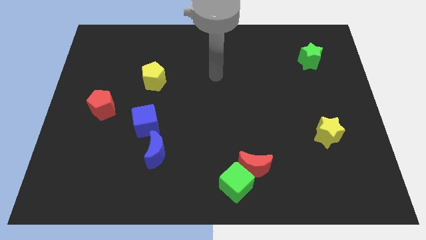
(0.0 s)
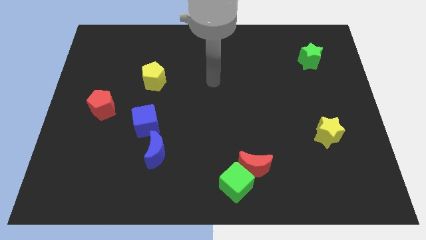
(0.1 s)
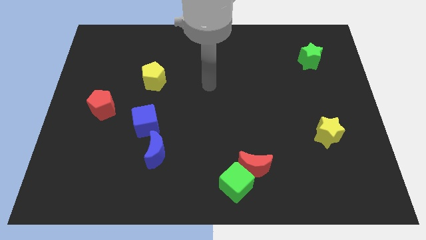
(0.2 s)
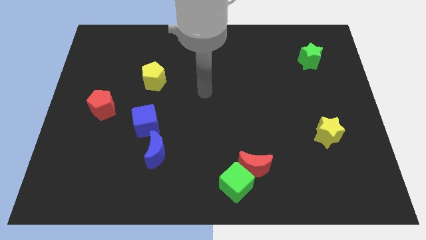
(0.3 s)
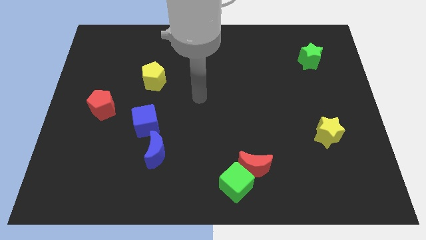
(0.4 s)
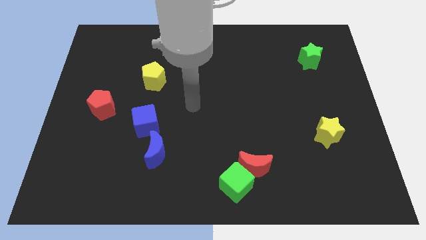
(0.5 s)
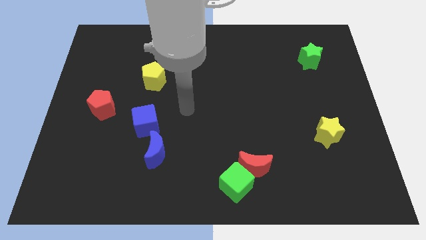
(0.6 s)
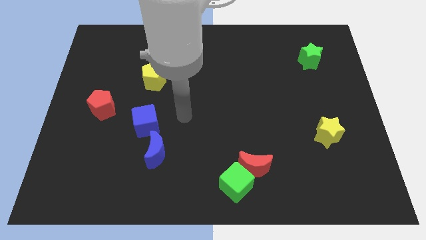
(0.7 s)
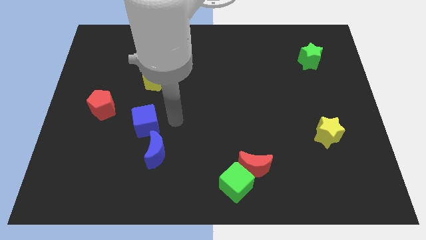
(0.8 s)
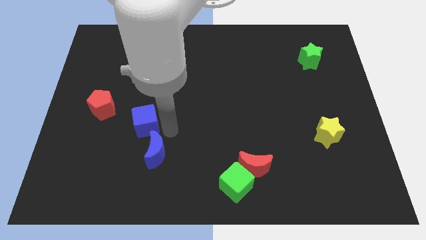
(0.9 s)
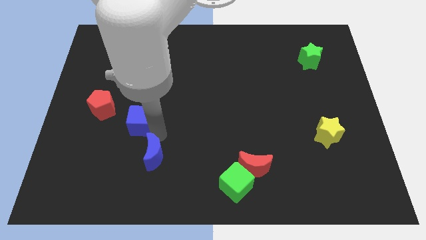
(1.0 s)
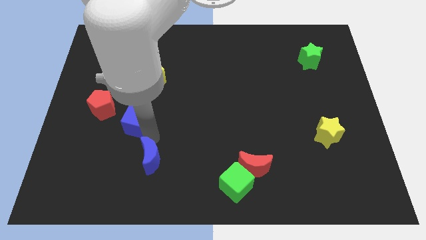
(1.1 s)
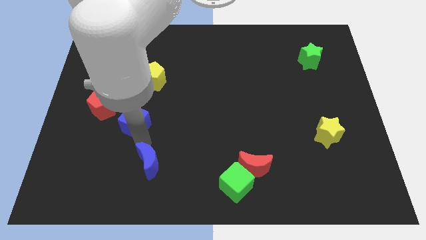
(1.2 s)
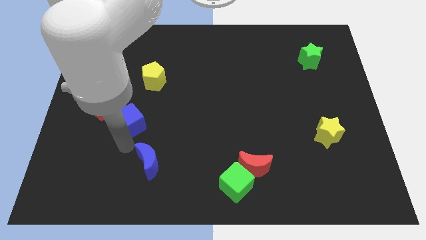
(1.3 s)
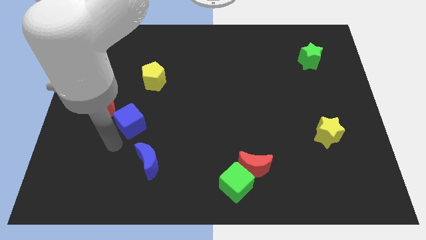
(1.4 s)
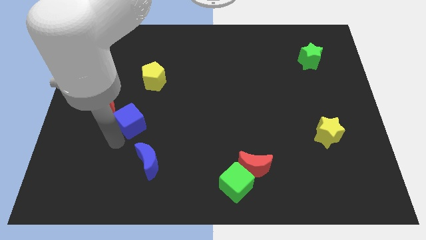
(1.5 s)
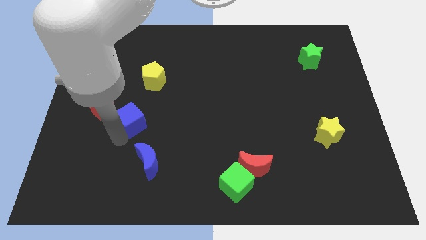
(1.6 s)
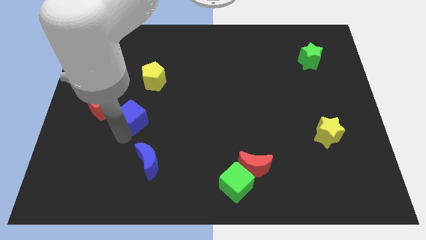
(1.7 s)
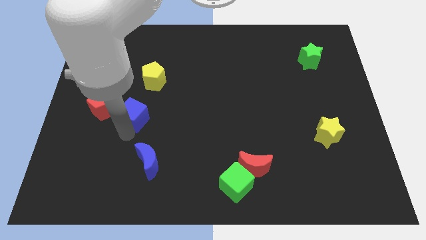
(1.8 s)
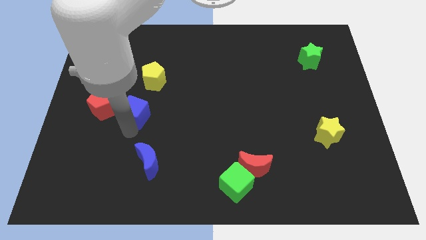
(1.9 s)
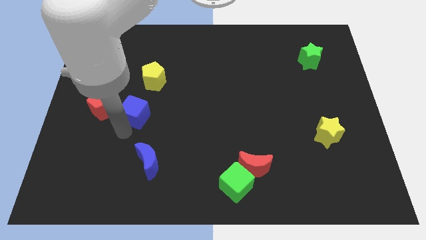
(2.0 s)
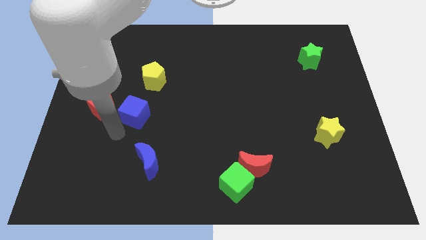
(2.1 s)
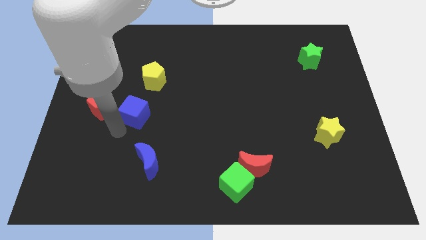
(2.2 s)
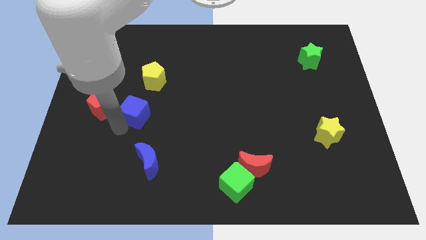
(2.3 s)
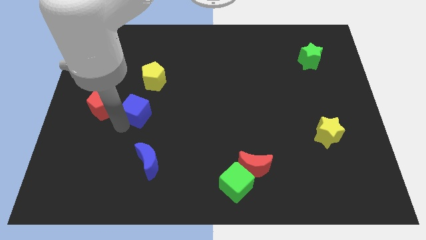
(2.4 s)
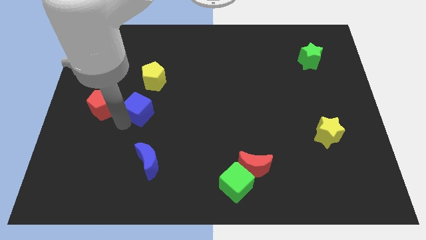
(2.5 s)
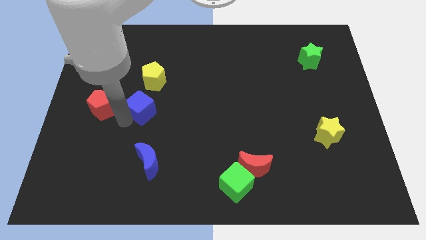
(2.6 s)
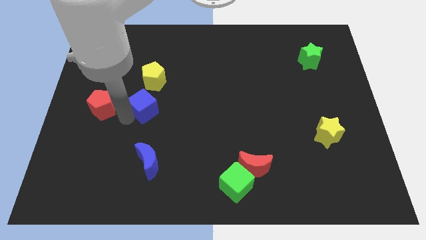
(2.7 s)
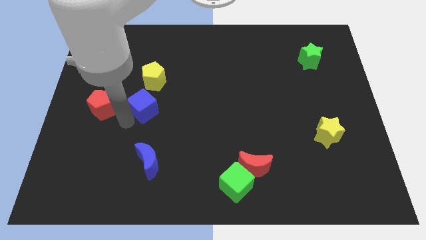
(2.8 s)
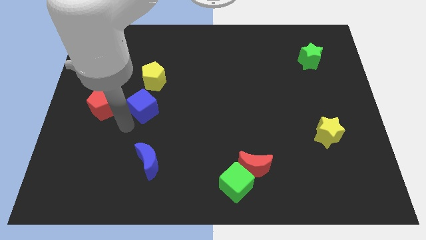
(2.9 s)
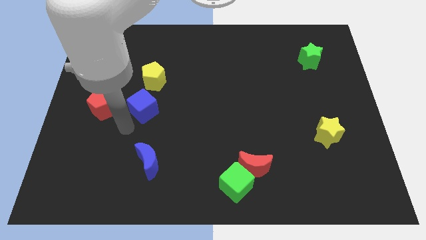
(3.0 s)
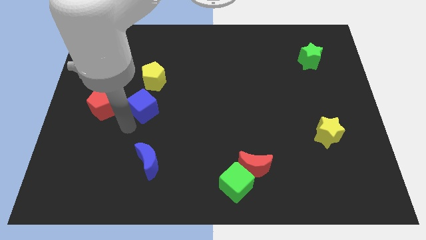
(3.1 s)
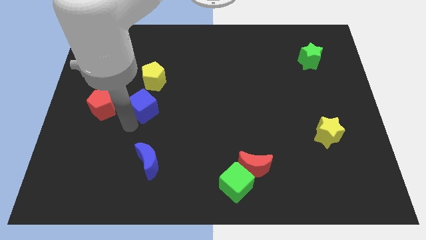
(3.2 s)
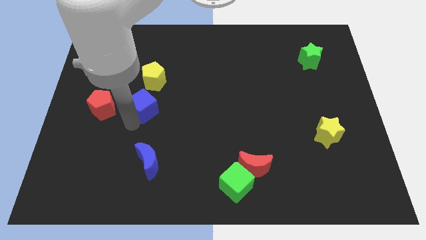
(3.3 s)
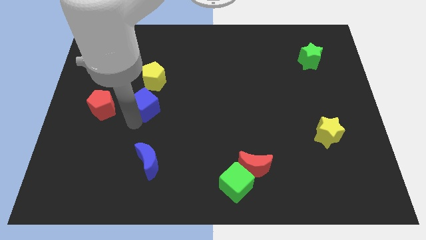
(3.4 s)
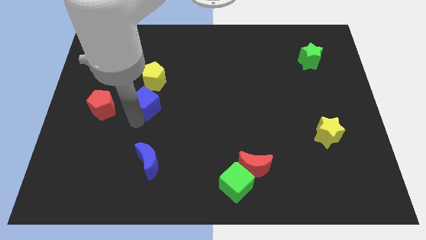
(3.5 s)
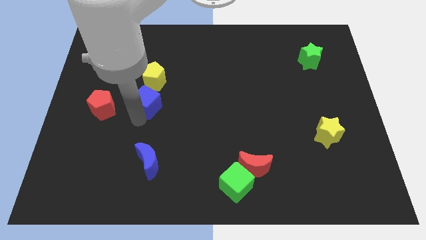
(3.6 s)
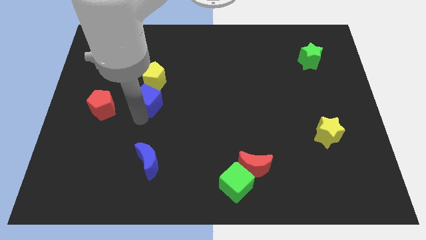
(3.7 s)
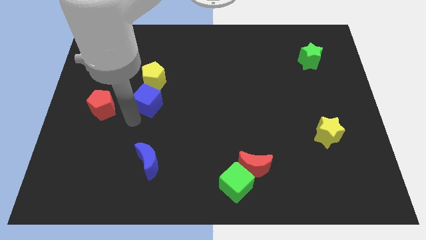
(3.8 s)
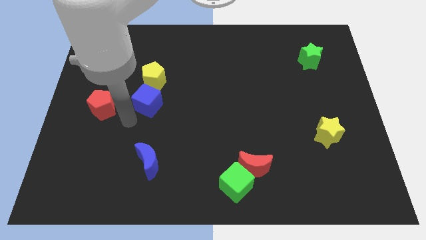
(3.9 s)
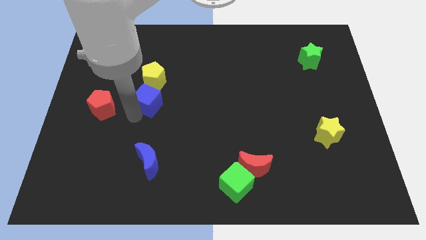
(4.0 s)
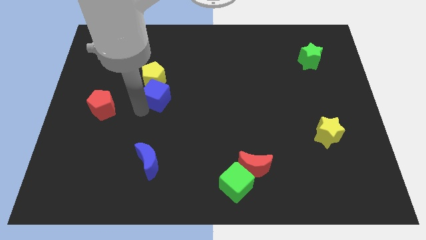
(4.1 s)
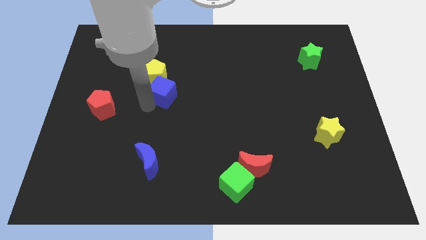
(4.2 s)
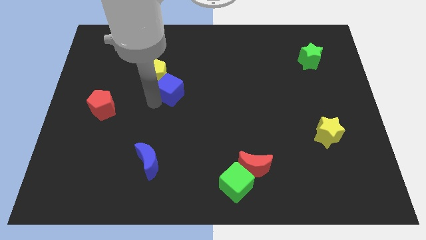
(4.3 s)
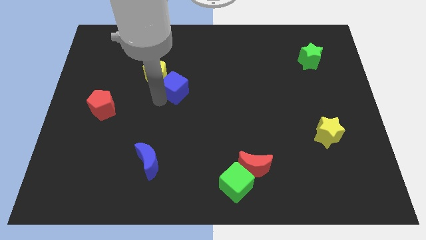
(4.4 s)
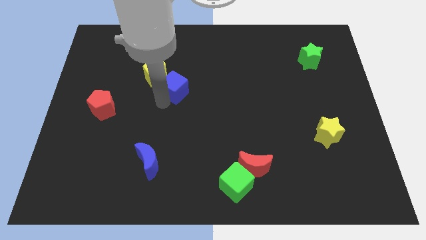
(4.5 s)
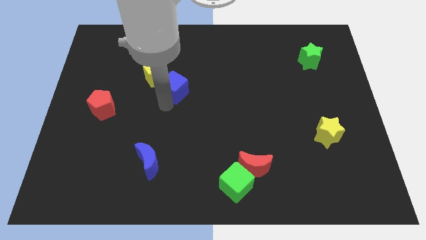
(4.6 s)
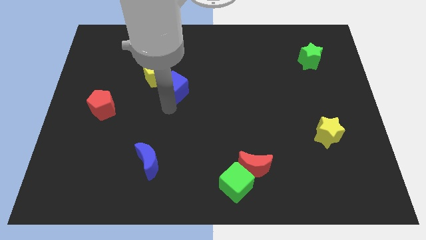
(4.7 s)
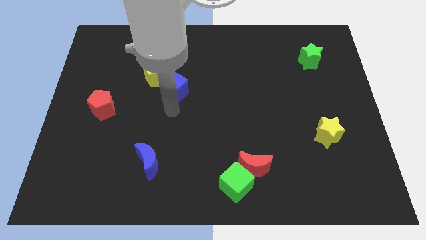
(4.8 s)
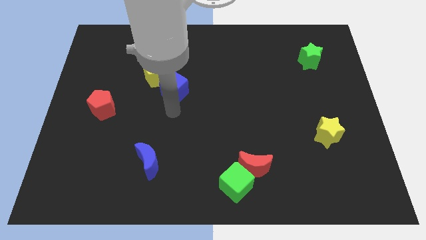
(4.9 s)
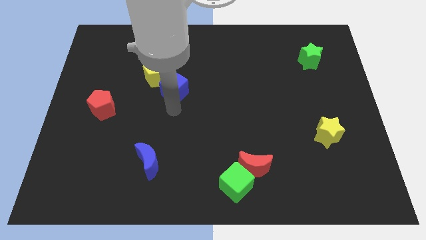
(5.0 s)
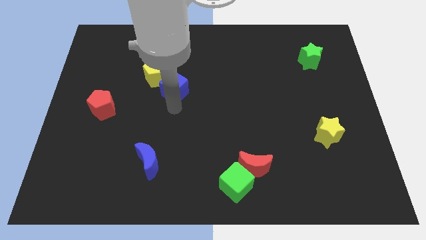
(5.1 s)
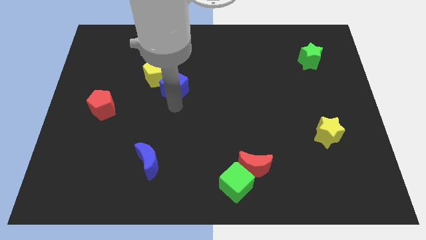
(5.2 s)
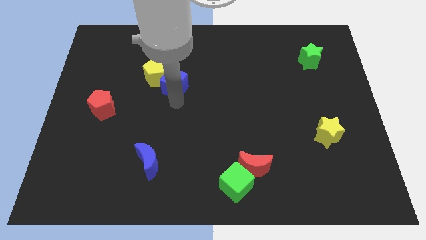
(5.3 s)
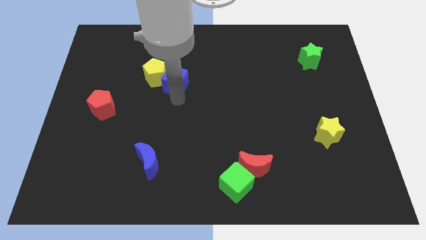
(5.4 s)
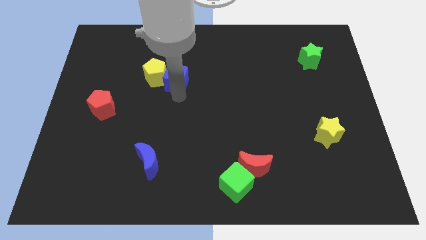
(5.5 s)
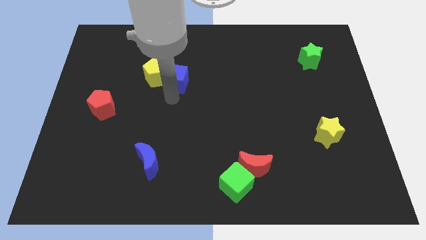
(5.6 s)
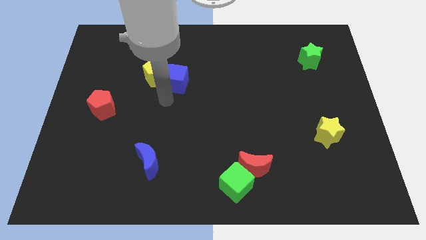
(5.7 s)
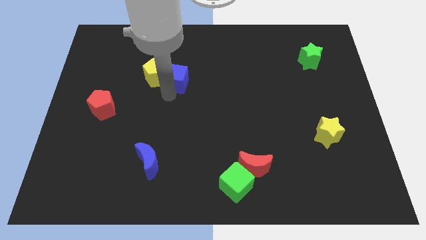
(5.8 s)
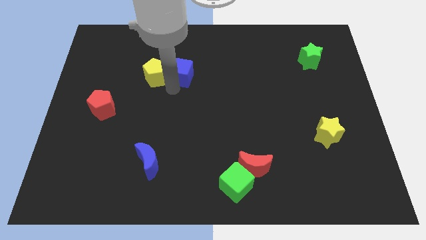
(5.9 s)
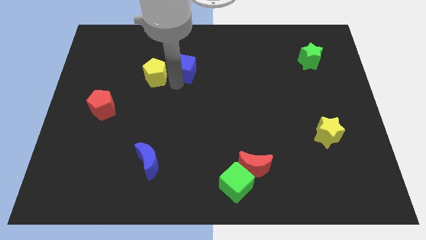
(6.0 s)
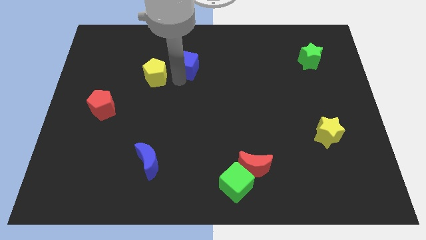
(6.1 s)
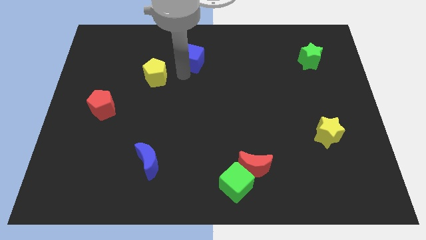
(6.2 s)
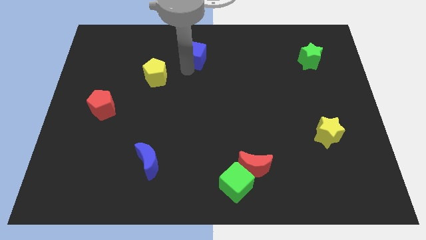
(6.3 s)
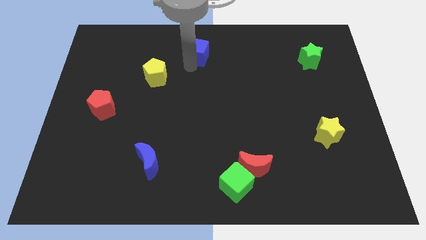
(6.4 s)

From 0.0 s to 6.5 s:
push the blue cube to the top side
